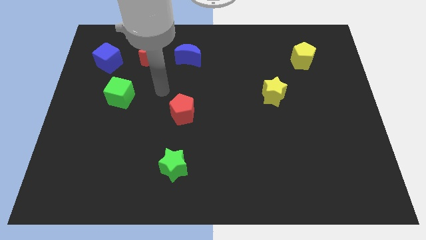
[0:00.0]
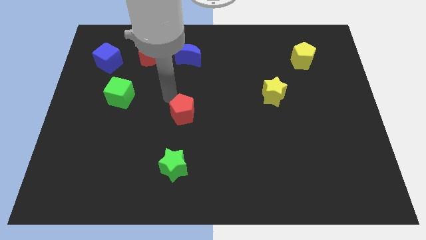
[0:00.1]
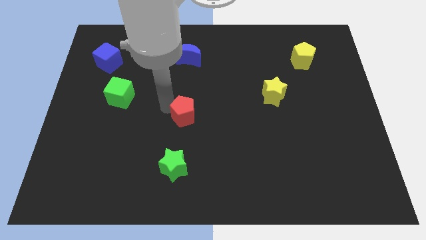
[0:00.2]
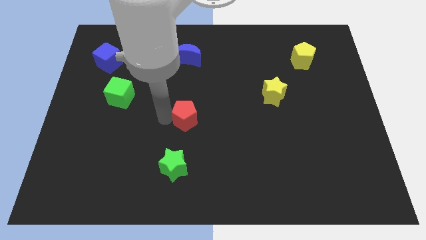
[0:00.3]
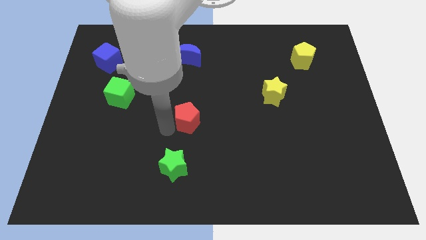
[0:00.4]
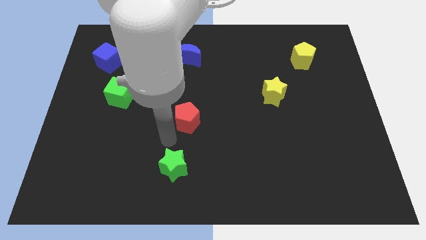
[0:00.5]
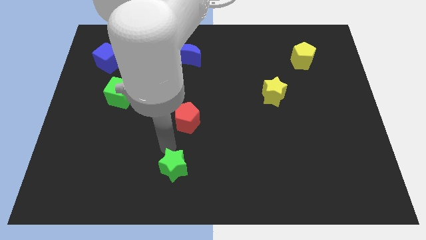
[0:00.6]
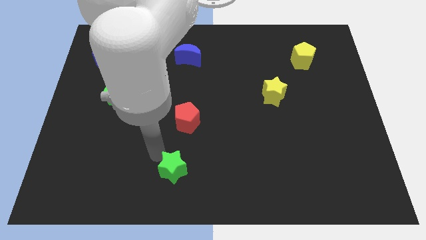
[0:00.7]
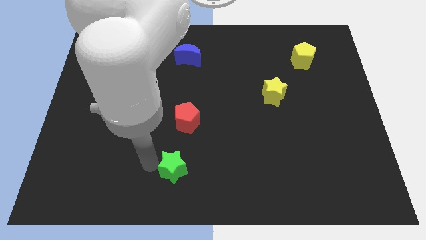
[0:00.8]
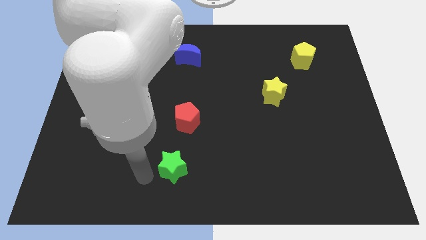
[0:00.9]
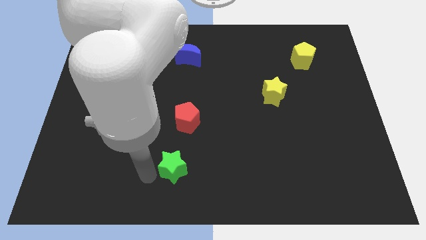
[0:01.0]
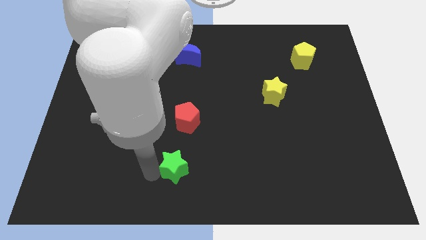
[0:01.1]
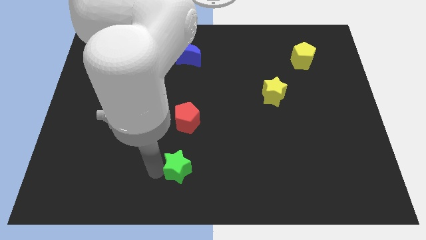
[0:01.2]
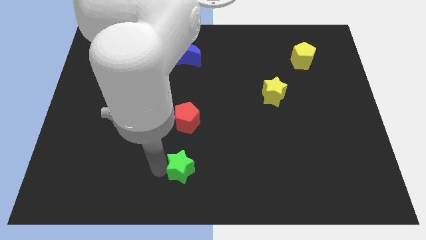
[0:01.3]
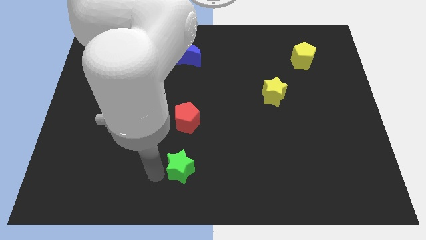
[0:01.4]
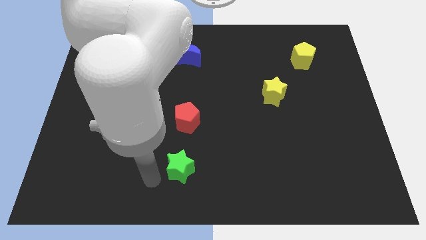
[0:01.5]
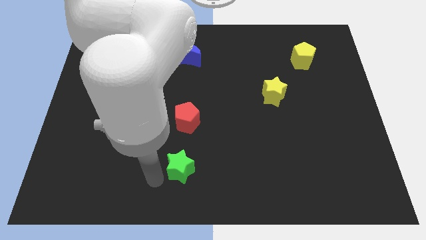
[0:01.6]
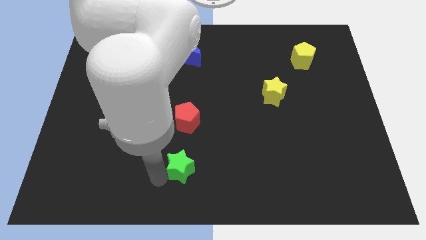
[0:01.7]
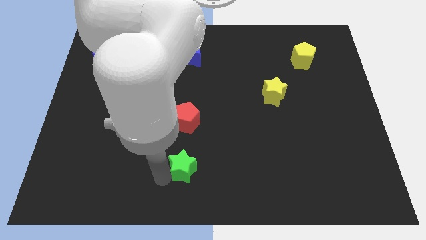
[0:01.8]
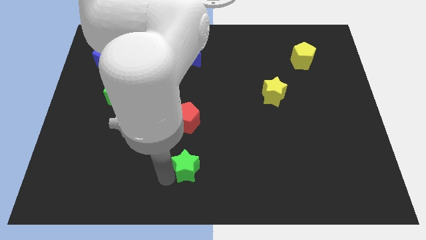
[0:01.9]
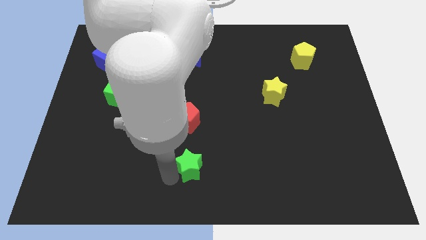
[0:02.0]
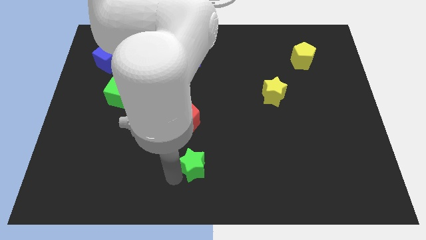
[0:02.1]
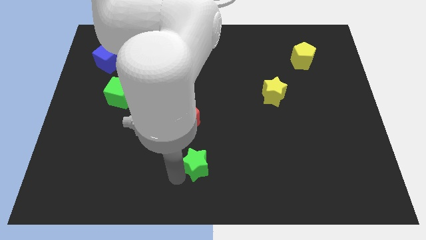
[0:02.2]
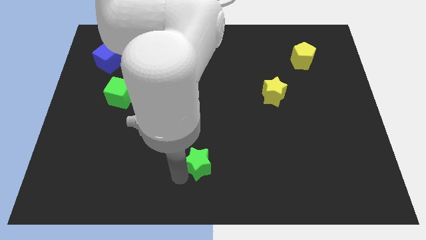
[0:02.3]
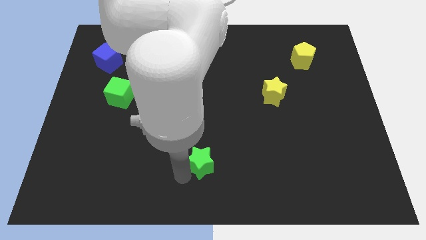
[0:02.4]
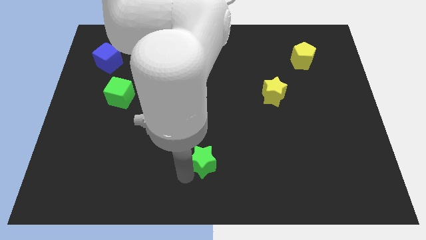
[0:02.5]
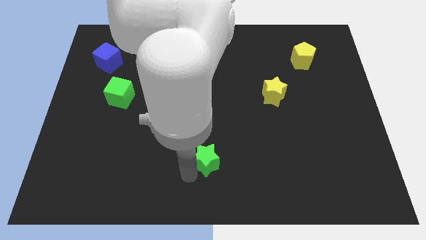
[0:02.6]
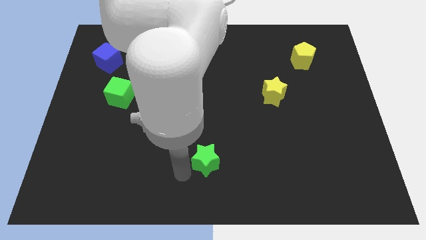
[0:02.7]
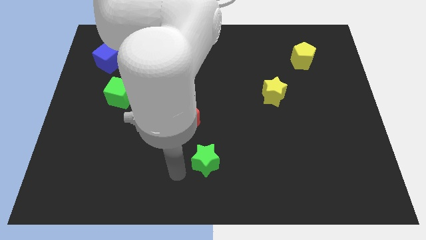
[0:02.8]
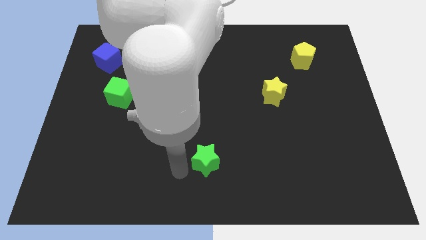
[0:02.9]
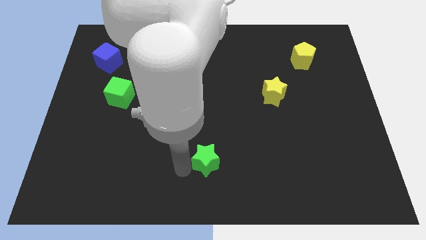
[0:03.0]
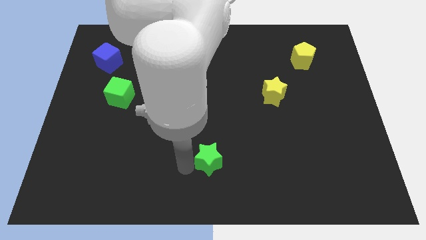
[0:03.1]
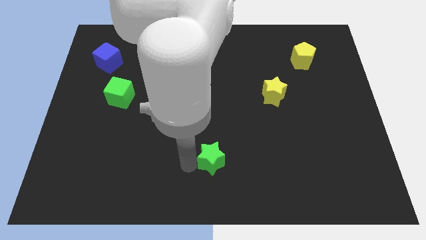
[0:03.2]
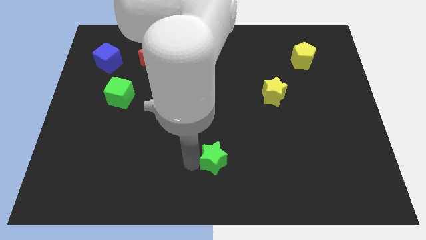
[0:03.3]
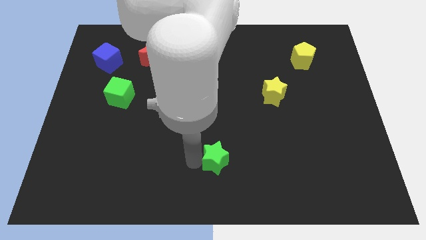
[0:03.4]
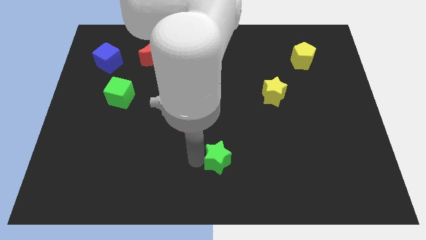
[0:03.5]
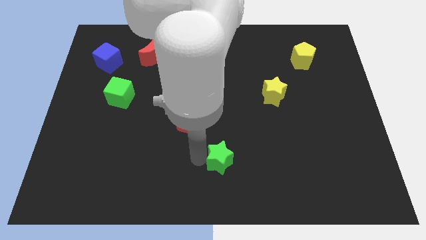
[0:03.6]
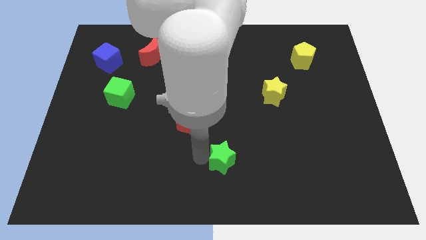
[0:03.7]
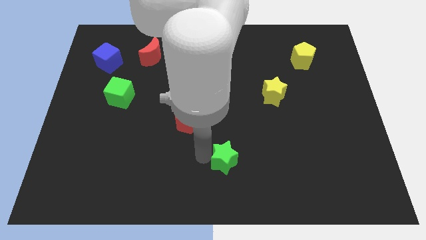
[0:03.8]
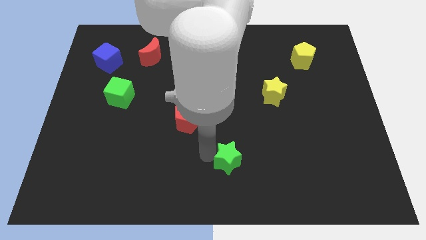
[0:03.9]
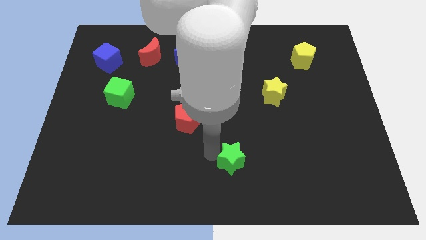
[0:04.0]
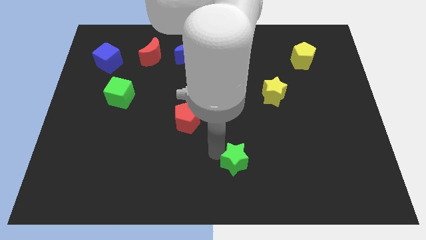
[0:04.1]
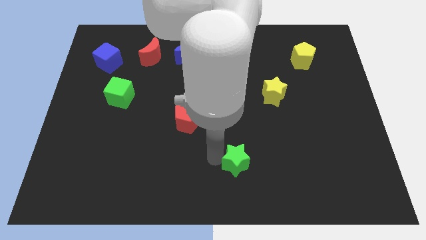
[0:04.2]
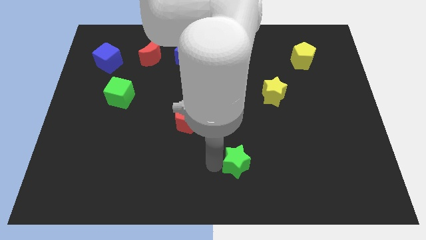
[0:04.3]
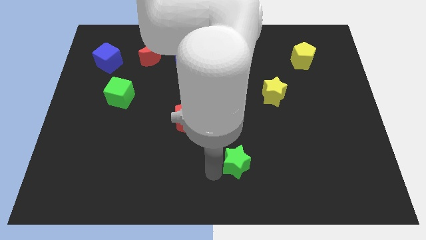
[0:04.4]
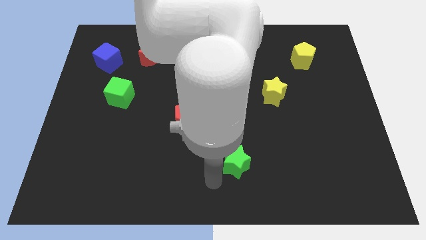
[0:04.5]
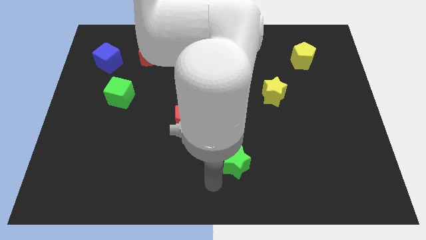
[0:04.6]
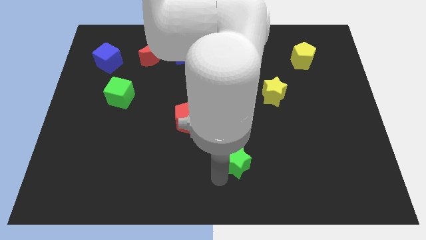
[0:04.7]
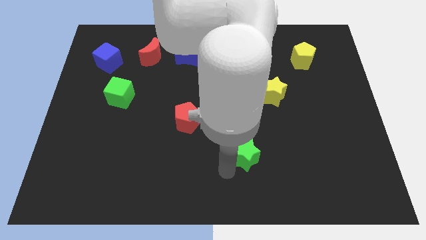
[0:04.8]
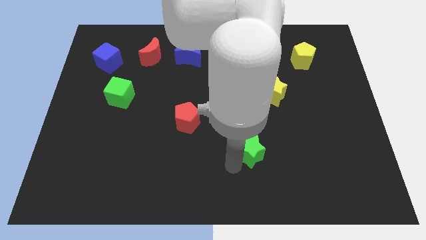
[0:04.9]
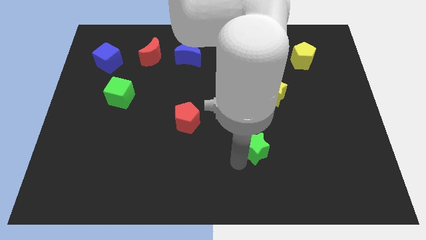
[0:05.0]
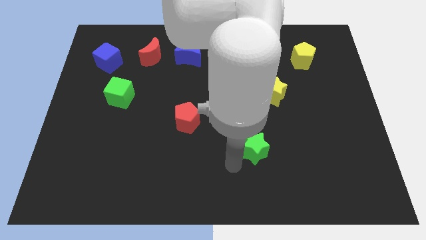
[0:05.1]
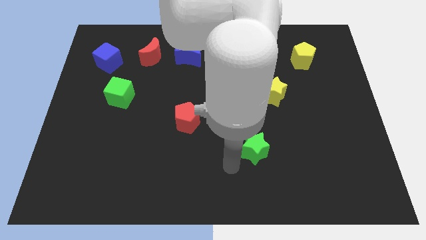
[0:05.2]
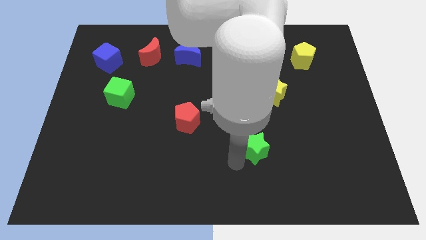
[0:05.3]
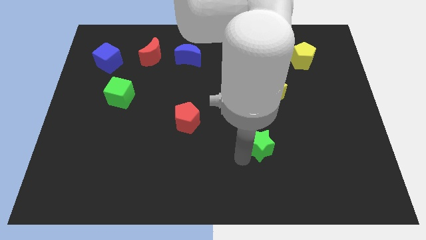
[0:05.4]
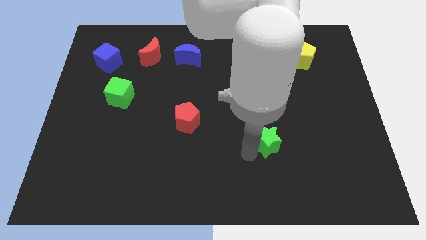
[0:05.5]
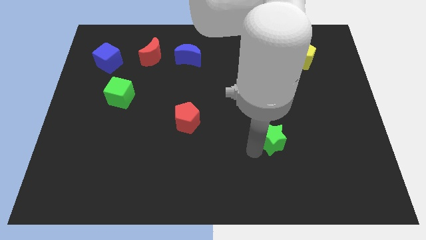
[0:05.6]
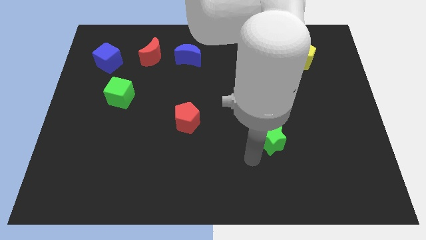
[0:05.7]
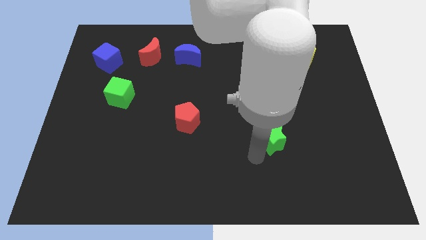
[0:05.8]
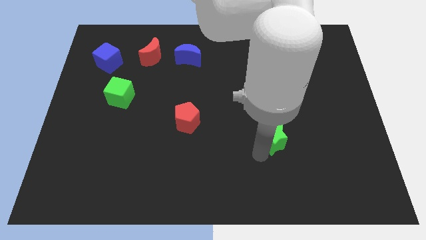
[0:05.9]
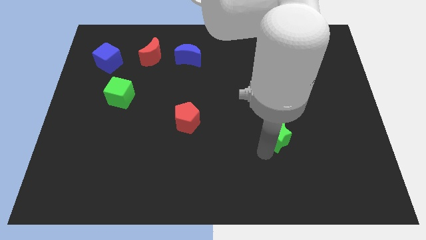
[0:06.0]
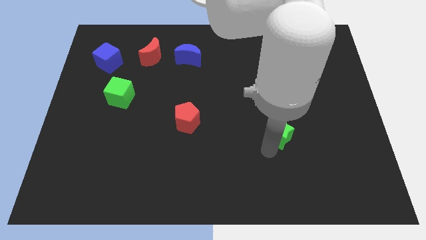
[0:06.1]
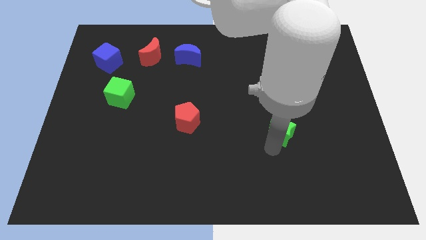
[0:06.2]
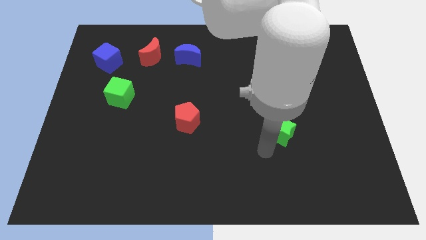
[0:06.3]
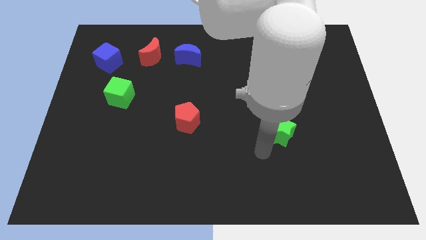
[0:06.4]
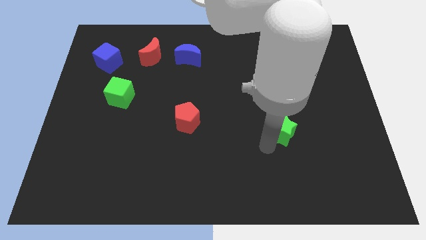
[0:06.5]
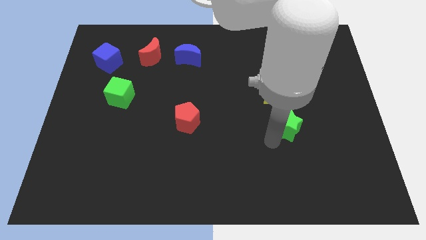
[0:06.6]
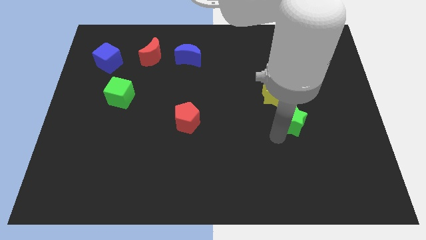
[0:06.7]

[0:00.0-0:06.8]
put the green star to the bottom right of the yellow star

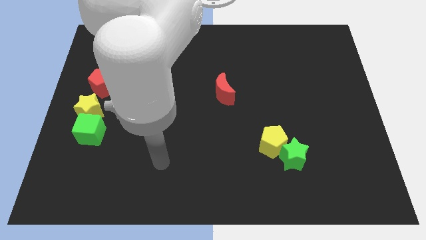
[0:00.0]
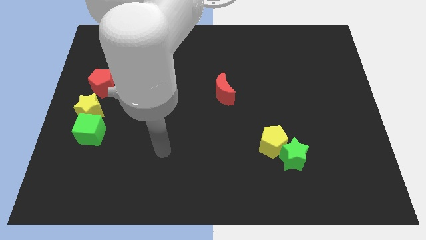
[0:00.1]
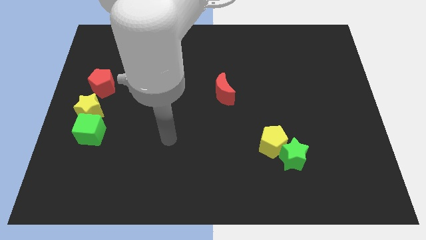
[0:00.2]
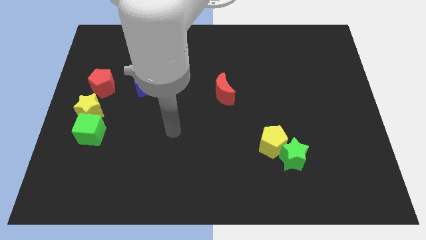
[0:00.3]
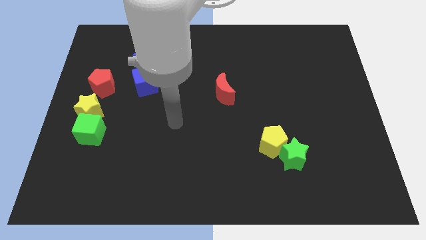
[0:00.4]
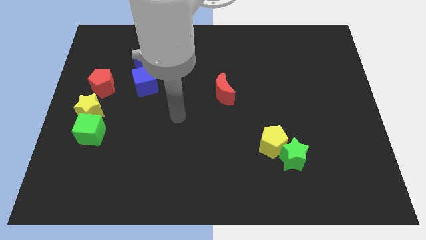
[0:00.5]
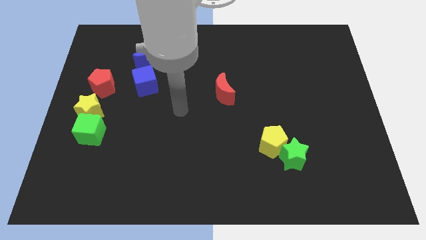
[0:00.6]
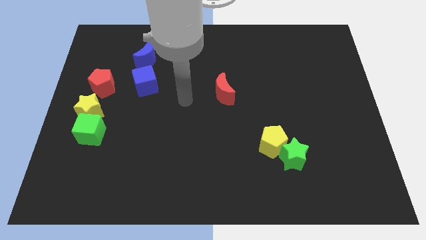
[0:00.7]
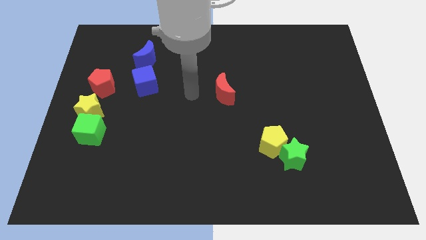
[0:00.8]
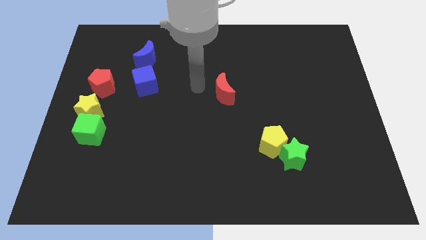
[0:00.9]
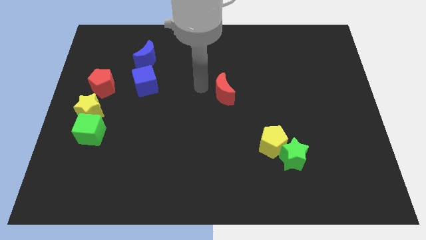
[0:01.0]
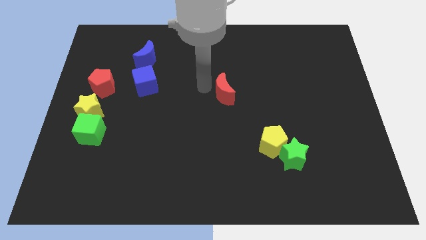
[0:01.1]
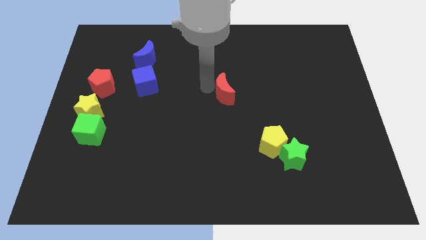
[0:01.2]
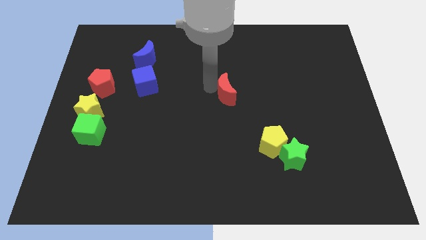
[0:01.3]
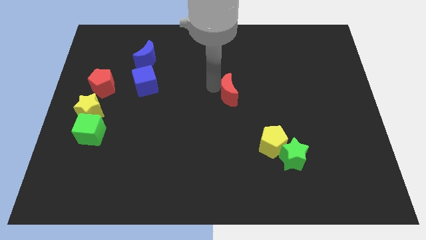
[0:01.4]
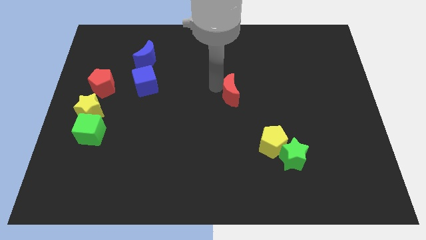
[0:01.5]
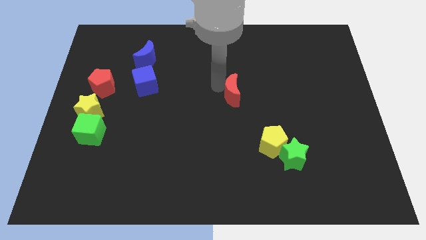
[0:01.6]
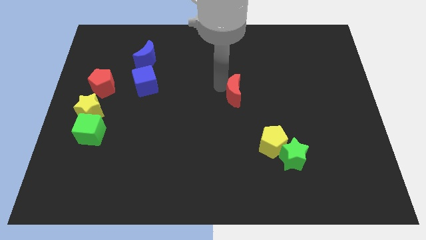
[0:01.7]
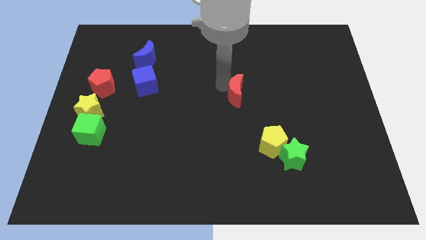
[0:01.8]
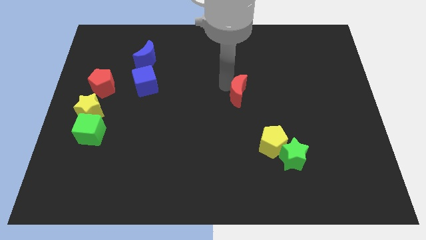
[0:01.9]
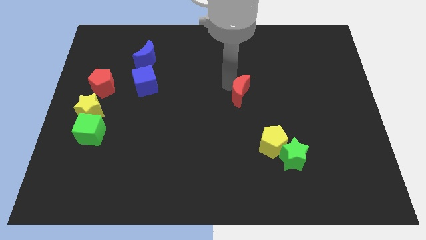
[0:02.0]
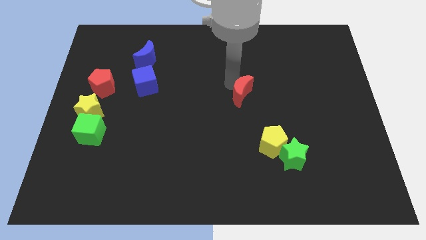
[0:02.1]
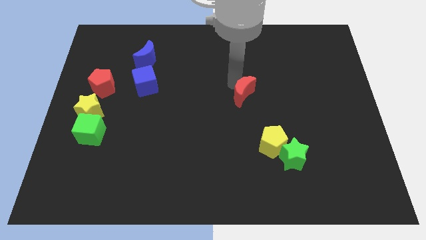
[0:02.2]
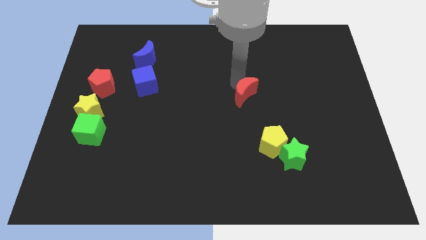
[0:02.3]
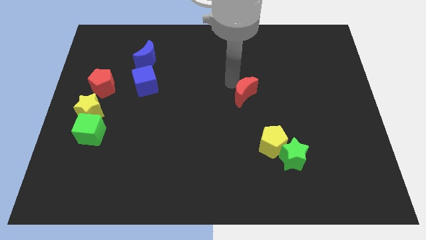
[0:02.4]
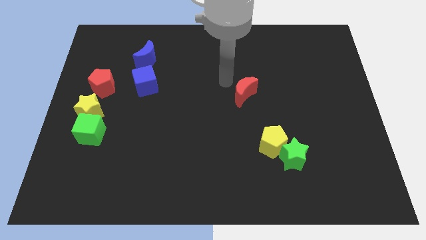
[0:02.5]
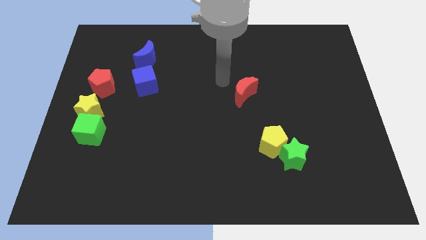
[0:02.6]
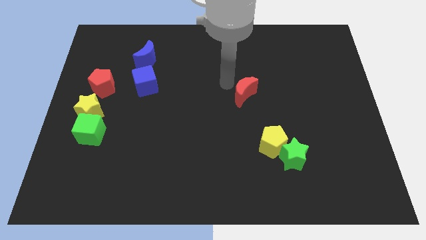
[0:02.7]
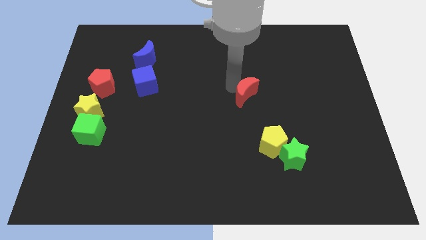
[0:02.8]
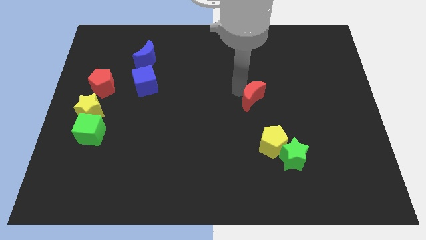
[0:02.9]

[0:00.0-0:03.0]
slide the red moon above the yellow pentagon
